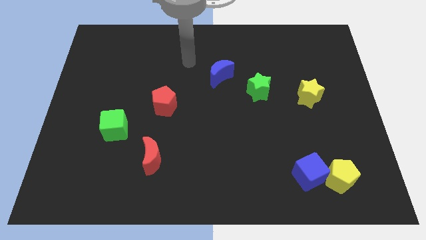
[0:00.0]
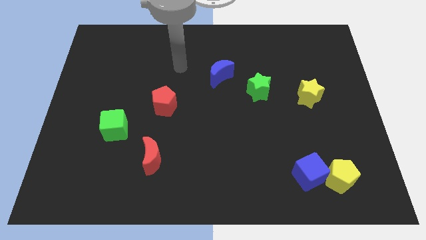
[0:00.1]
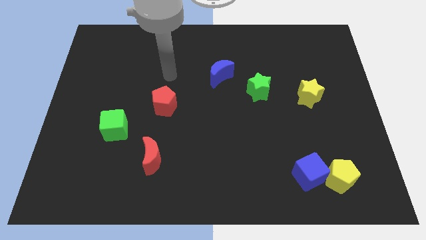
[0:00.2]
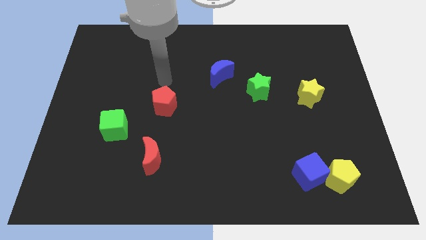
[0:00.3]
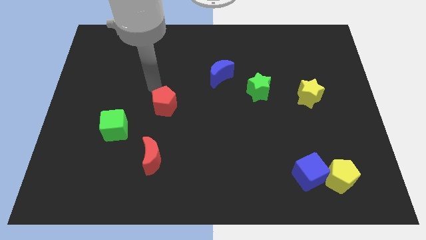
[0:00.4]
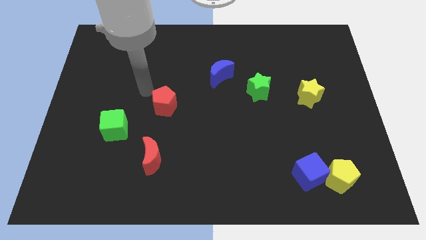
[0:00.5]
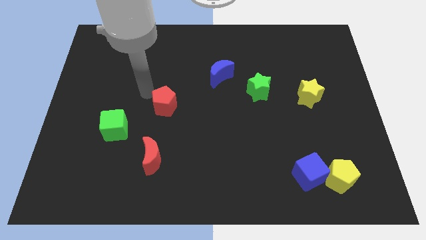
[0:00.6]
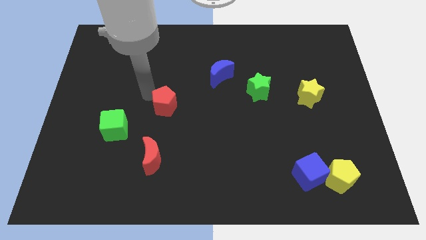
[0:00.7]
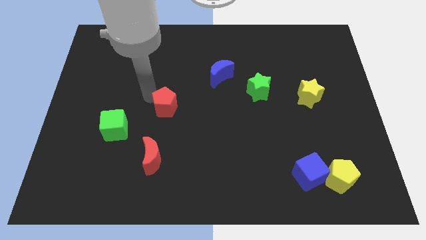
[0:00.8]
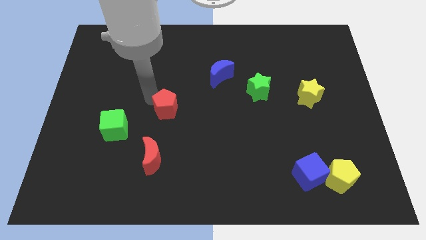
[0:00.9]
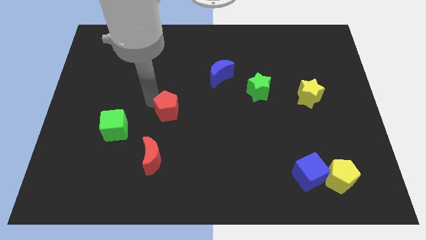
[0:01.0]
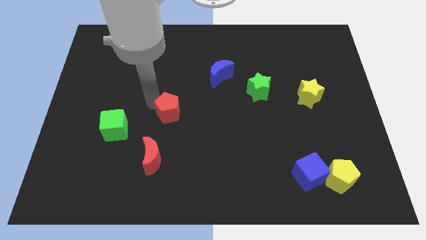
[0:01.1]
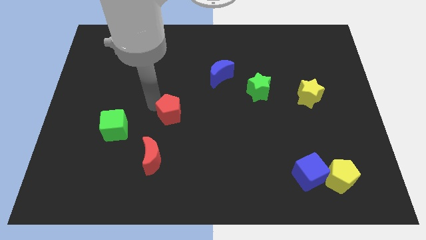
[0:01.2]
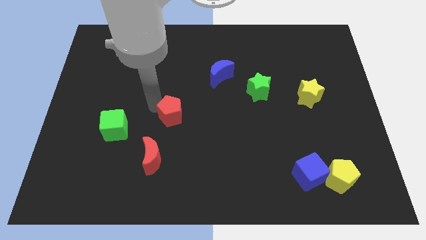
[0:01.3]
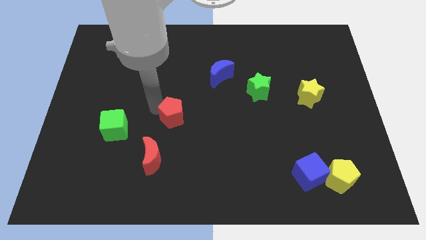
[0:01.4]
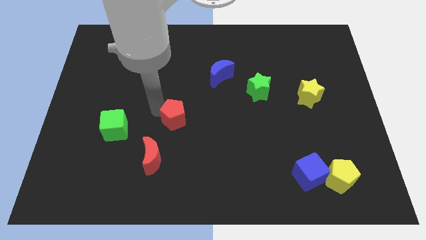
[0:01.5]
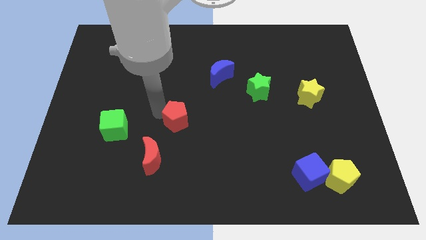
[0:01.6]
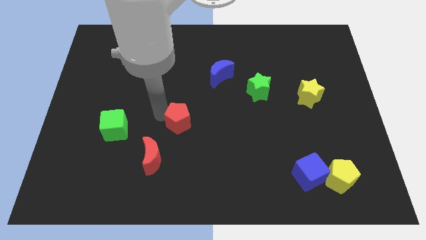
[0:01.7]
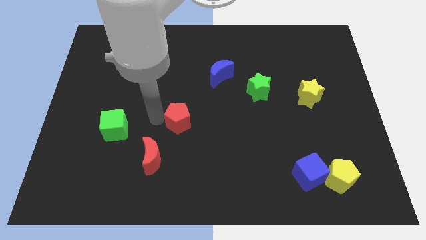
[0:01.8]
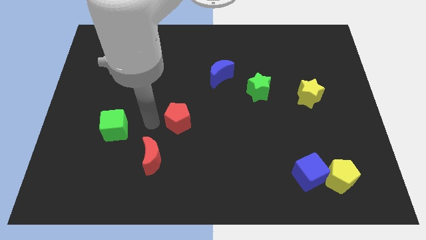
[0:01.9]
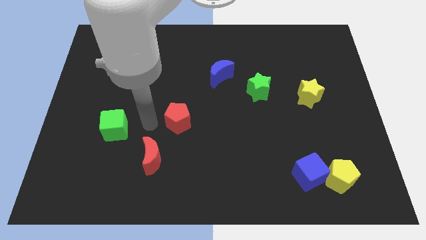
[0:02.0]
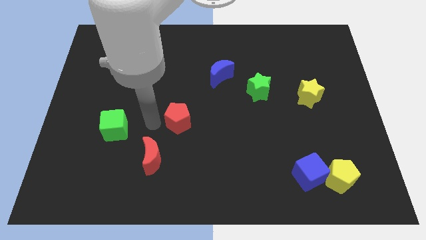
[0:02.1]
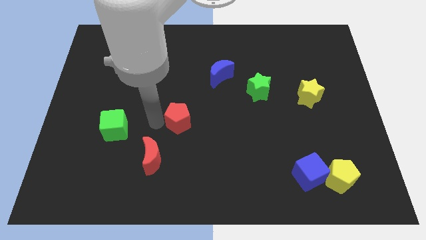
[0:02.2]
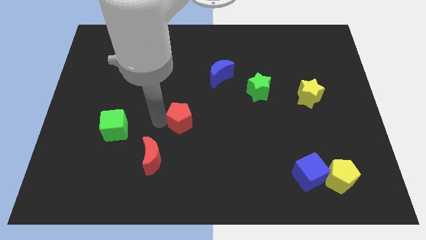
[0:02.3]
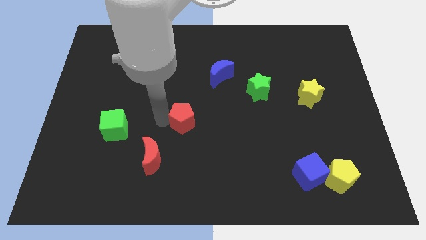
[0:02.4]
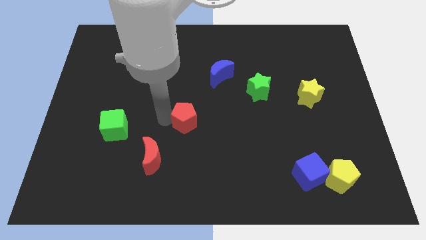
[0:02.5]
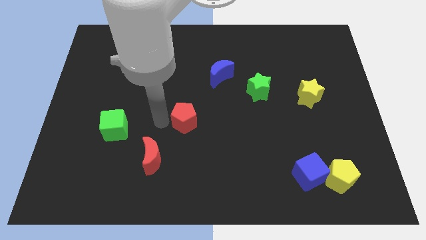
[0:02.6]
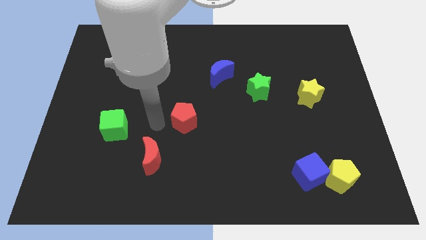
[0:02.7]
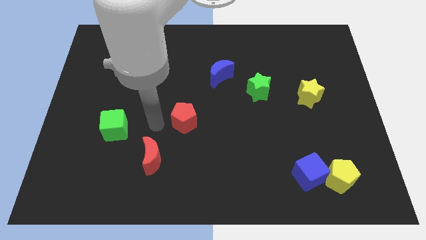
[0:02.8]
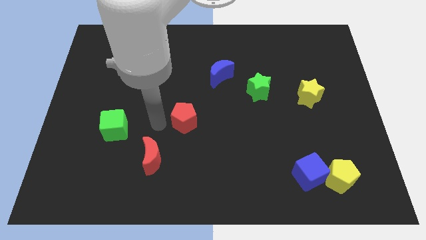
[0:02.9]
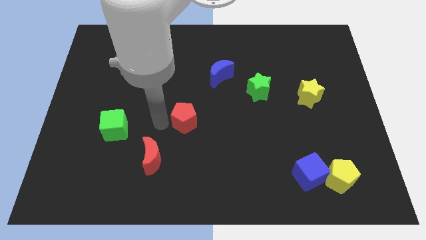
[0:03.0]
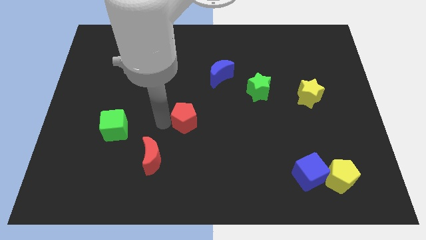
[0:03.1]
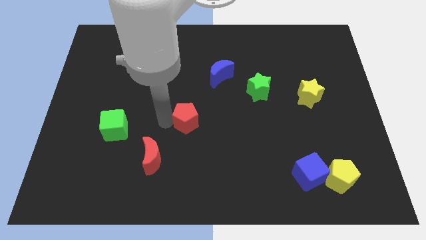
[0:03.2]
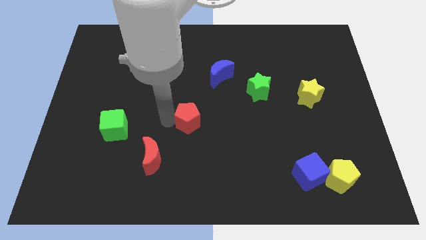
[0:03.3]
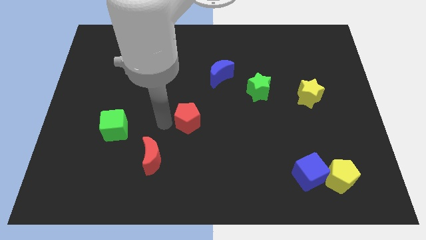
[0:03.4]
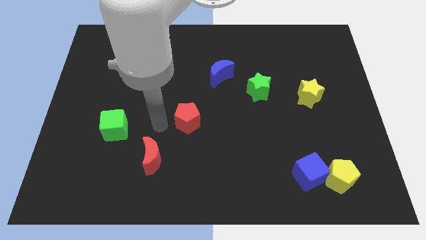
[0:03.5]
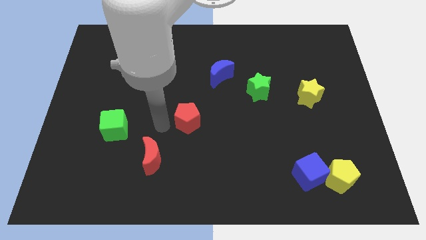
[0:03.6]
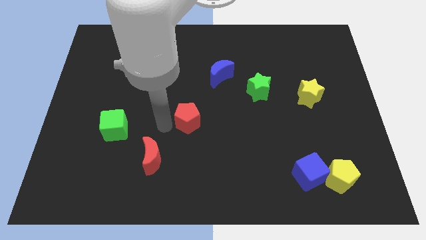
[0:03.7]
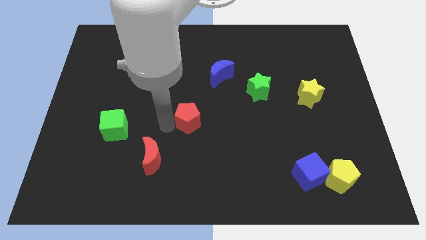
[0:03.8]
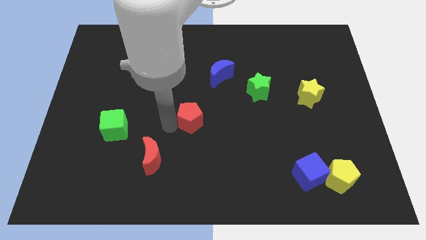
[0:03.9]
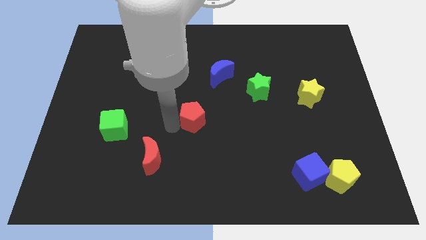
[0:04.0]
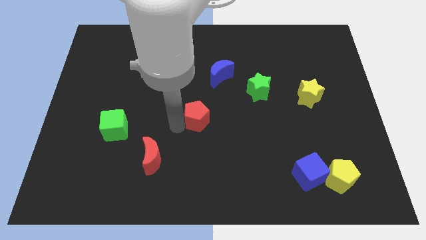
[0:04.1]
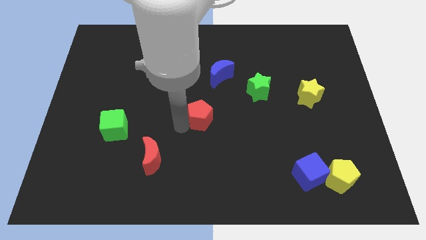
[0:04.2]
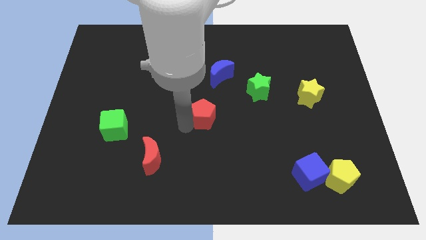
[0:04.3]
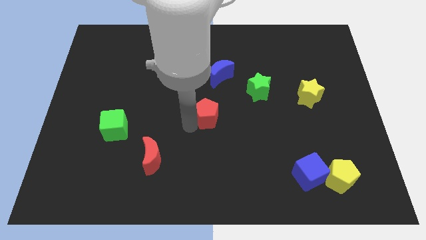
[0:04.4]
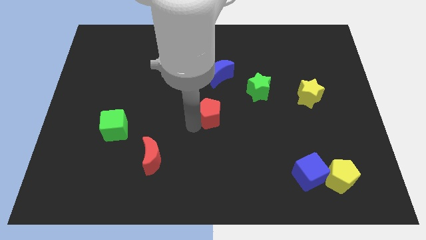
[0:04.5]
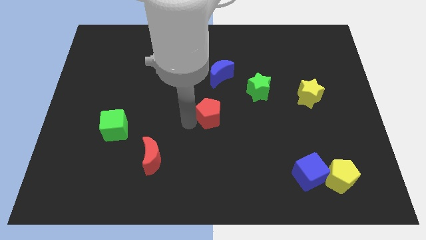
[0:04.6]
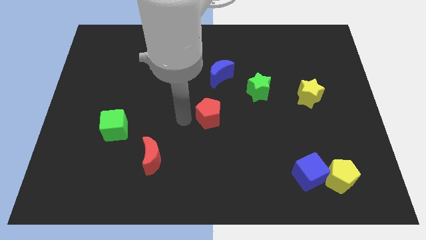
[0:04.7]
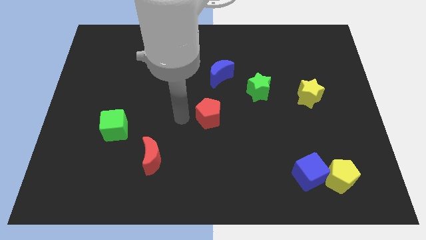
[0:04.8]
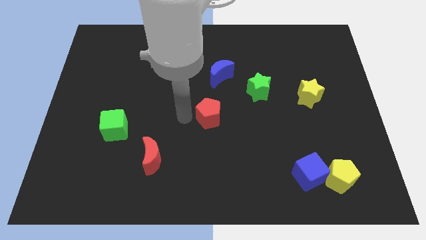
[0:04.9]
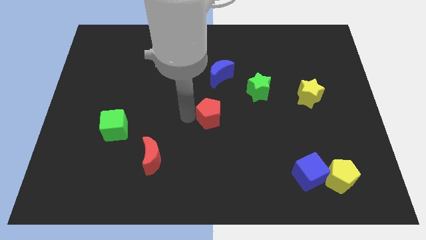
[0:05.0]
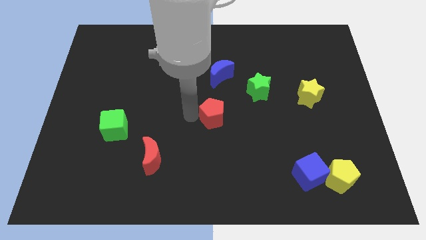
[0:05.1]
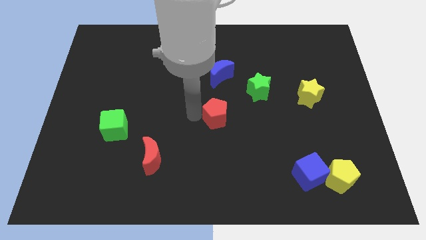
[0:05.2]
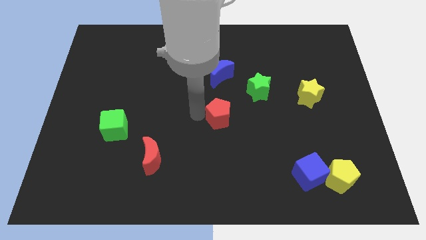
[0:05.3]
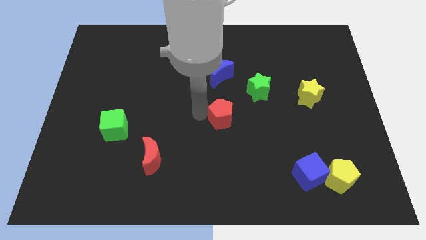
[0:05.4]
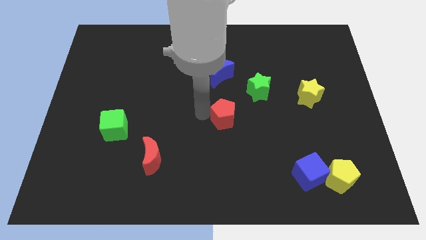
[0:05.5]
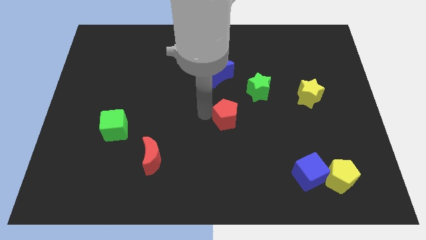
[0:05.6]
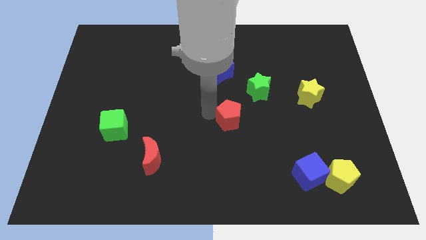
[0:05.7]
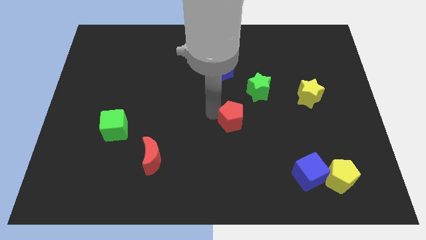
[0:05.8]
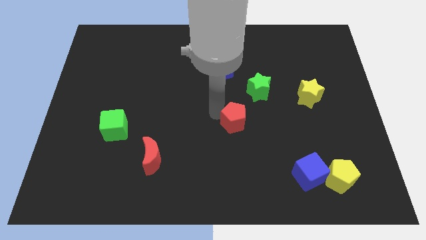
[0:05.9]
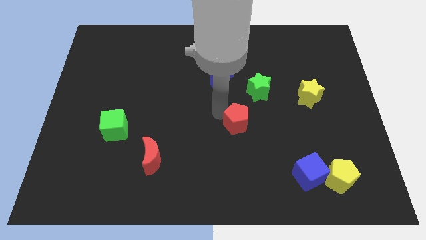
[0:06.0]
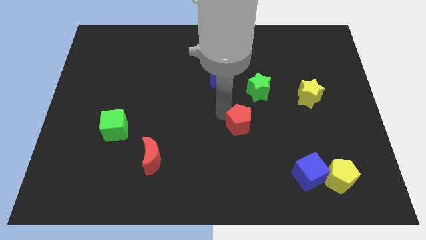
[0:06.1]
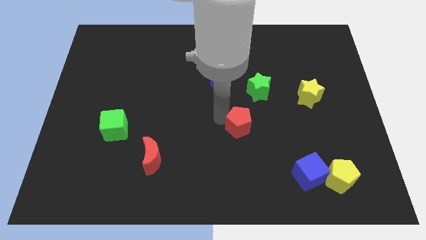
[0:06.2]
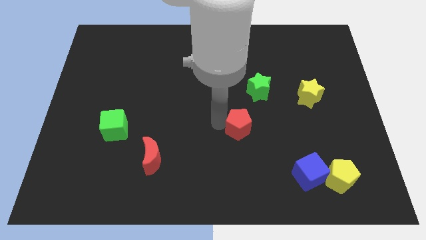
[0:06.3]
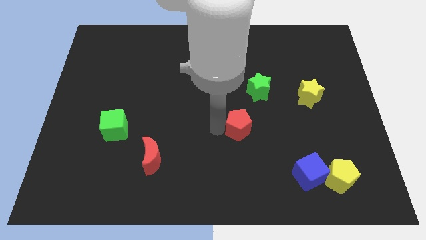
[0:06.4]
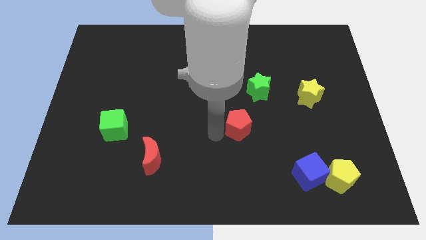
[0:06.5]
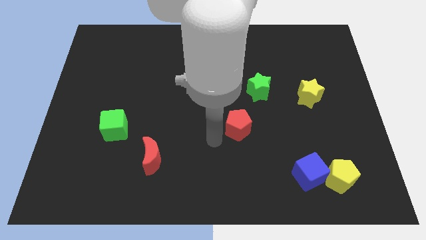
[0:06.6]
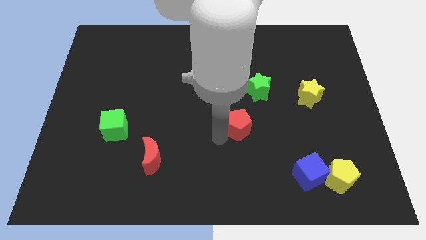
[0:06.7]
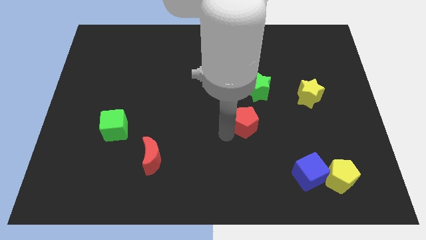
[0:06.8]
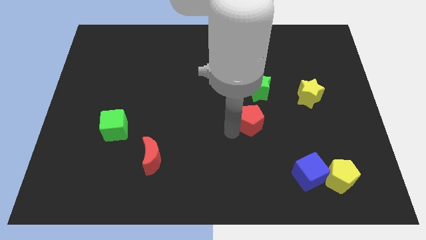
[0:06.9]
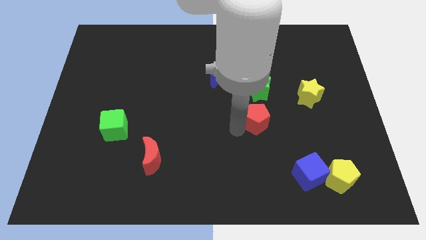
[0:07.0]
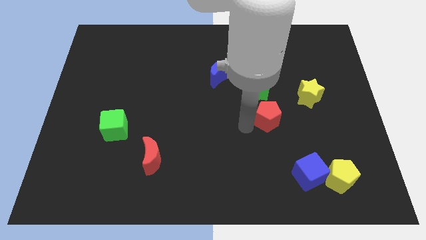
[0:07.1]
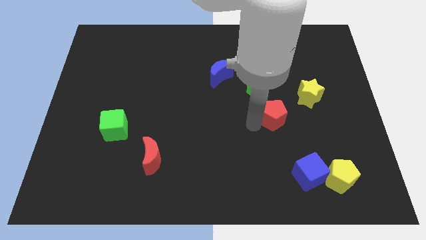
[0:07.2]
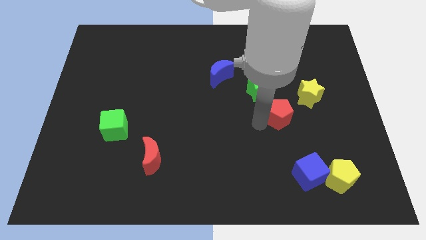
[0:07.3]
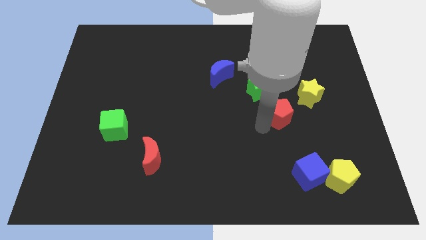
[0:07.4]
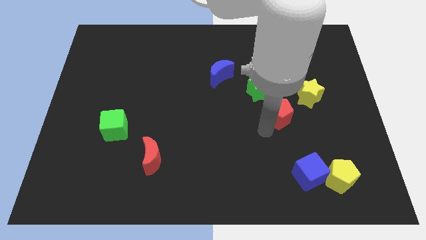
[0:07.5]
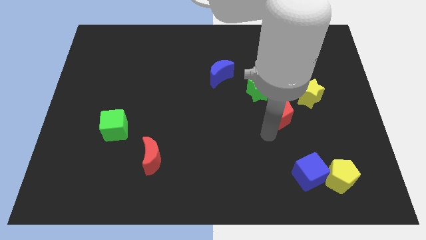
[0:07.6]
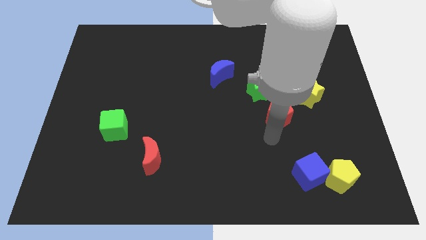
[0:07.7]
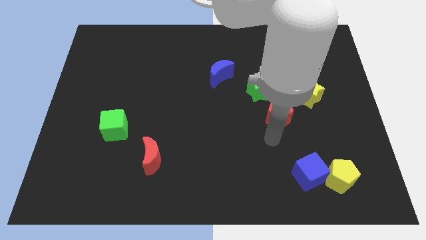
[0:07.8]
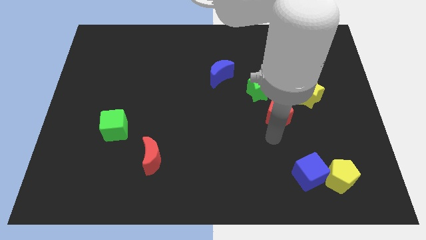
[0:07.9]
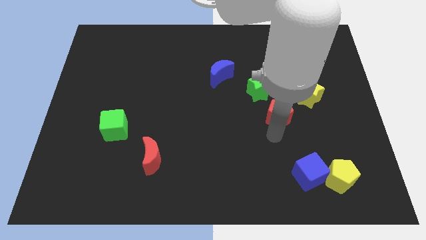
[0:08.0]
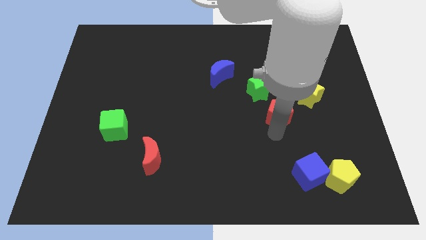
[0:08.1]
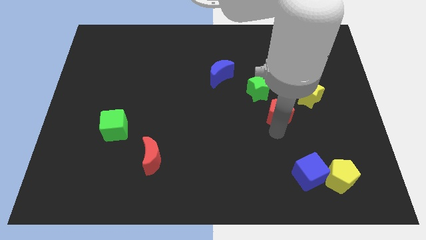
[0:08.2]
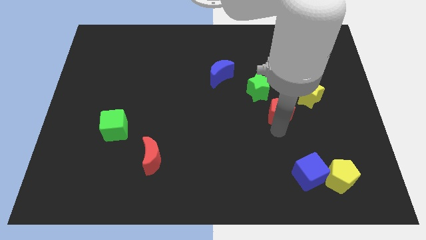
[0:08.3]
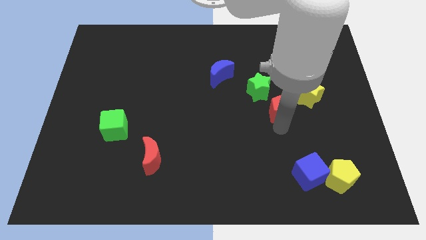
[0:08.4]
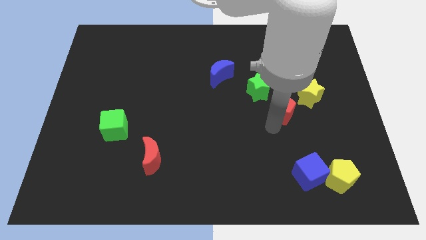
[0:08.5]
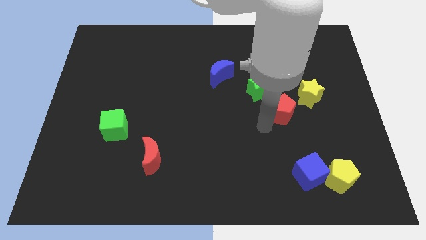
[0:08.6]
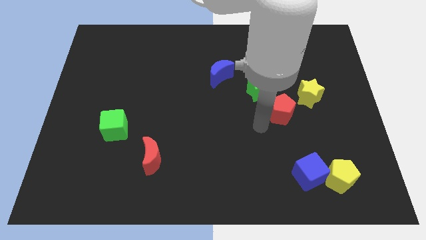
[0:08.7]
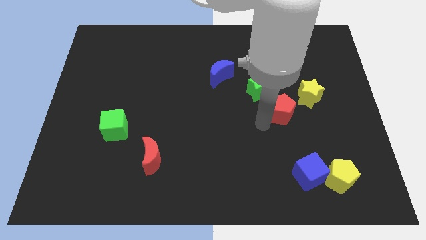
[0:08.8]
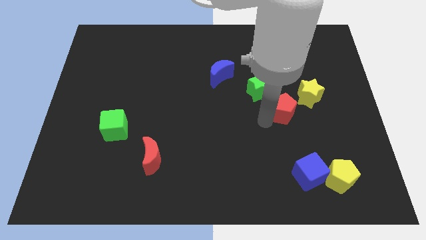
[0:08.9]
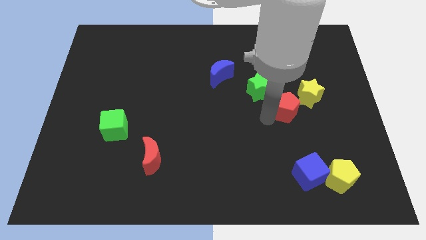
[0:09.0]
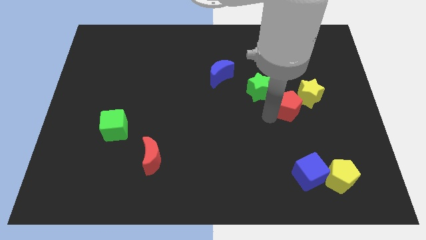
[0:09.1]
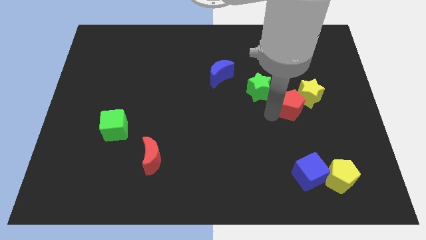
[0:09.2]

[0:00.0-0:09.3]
push the red pentagon to the yellow star
